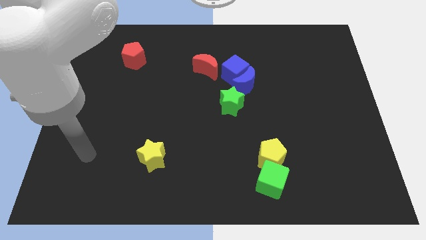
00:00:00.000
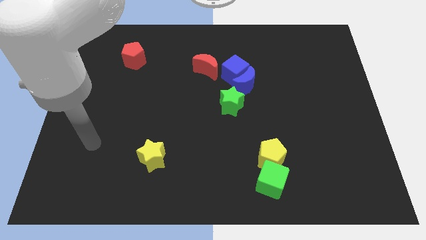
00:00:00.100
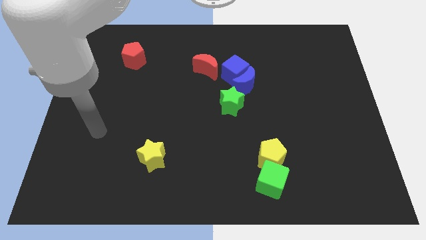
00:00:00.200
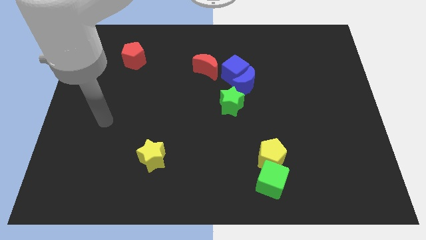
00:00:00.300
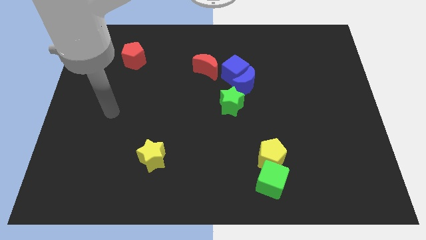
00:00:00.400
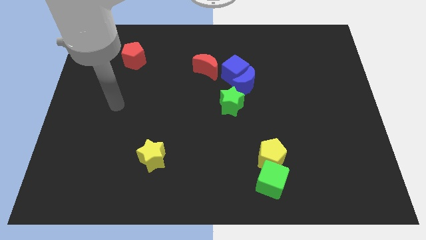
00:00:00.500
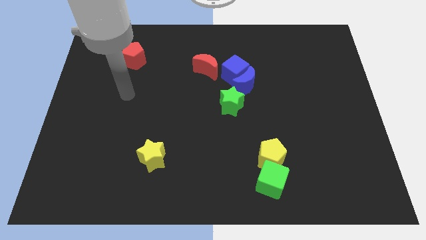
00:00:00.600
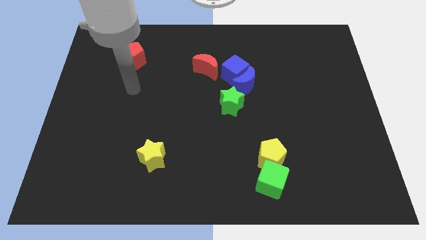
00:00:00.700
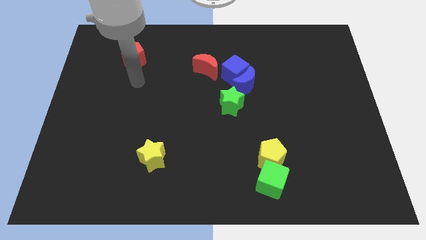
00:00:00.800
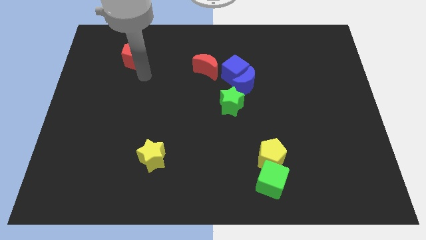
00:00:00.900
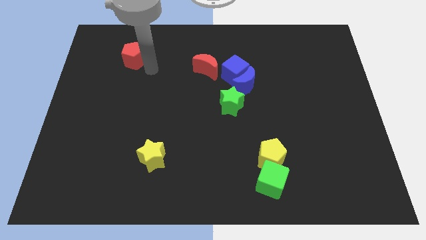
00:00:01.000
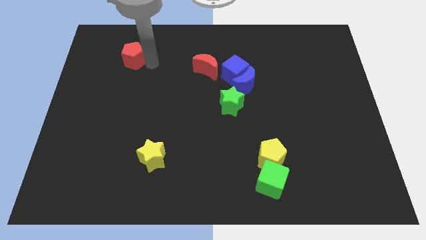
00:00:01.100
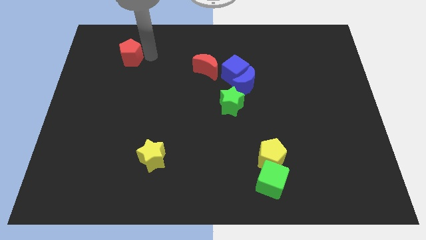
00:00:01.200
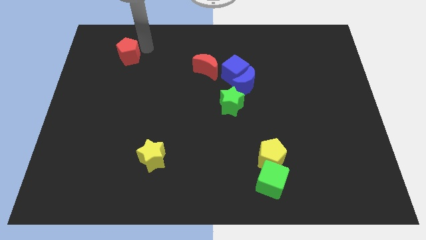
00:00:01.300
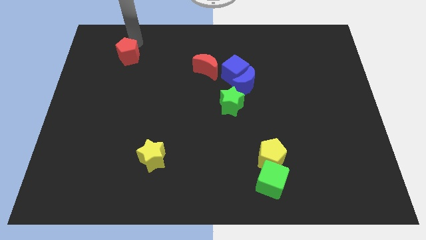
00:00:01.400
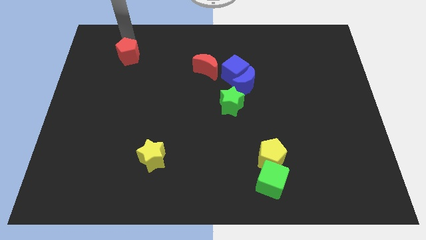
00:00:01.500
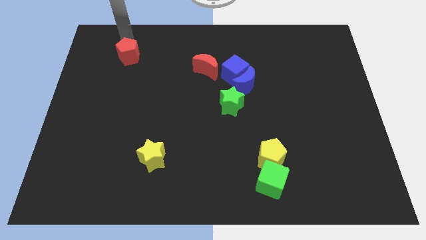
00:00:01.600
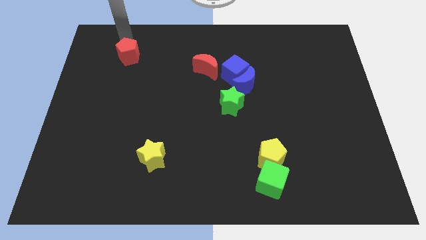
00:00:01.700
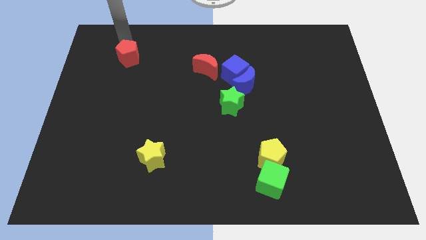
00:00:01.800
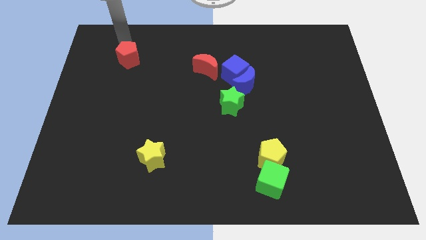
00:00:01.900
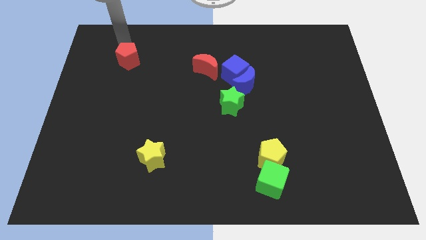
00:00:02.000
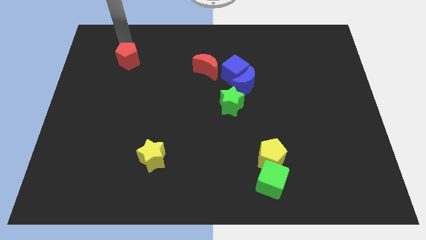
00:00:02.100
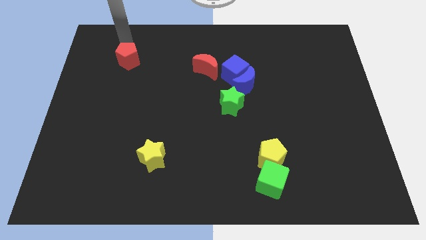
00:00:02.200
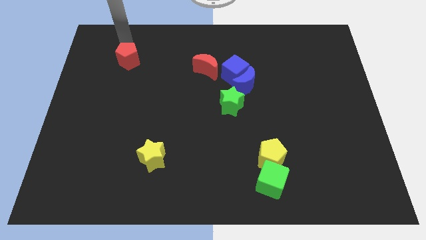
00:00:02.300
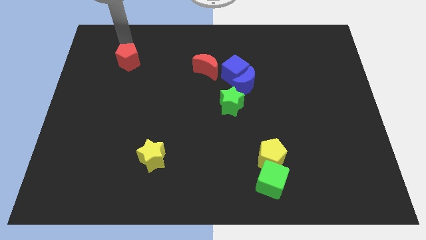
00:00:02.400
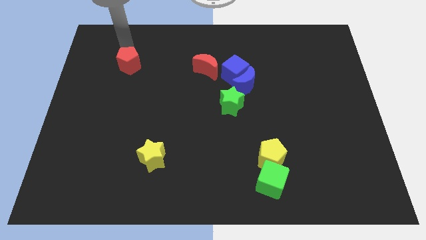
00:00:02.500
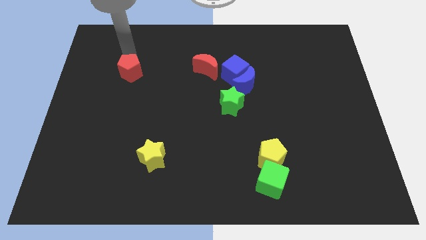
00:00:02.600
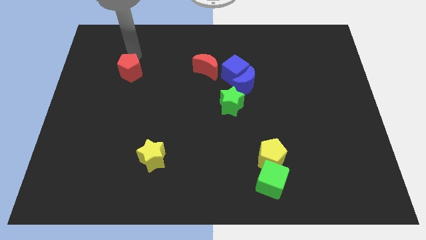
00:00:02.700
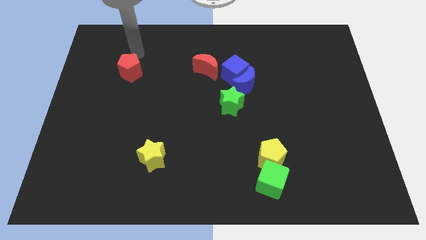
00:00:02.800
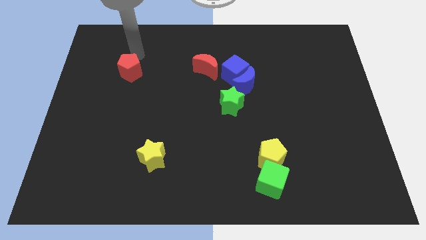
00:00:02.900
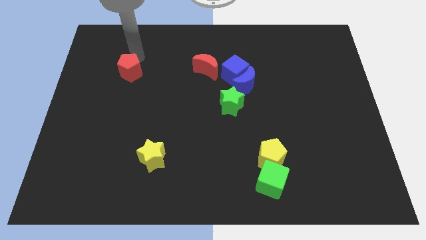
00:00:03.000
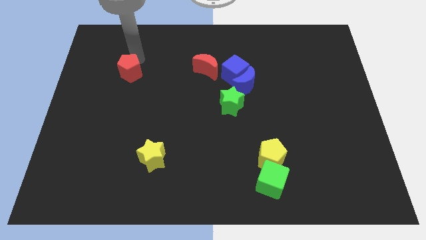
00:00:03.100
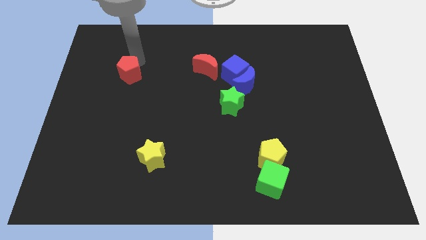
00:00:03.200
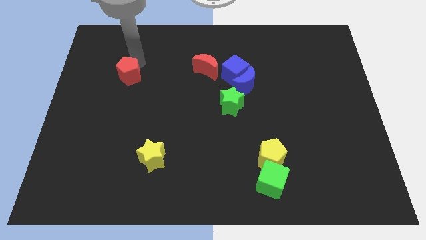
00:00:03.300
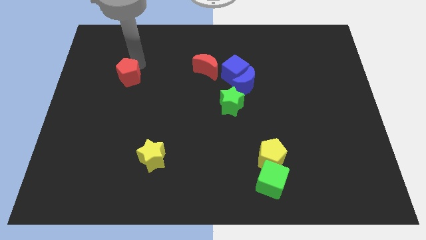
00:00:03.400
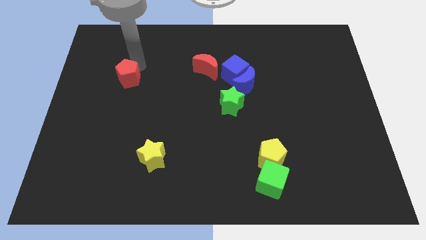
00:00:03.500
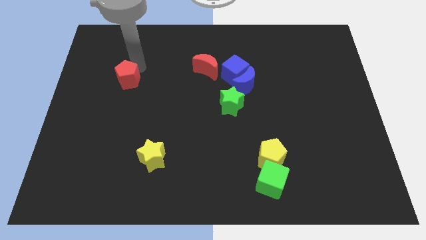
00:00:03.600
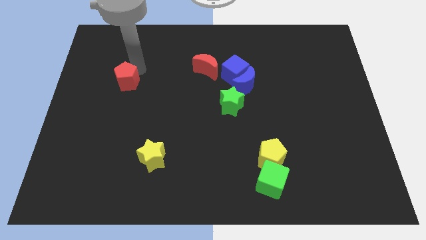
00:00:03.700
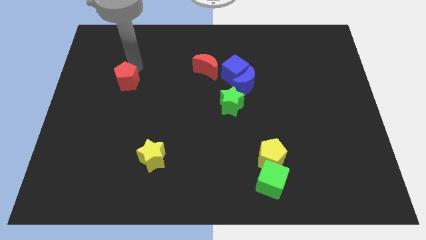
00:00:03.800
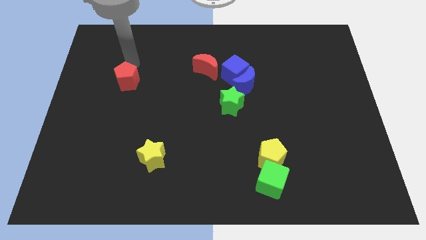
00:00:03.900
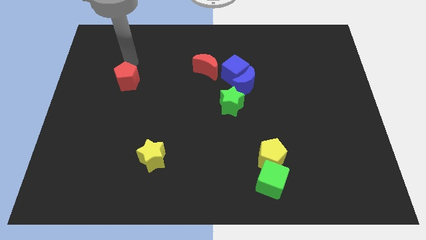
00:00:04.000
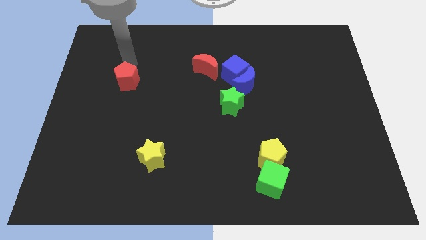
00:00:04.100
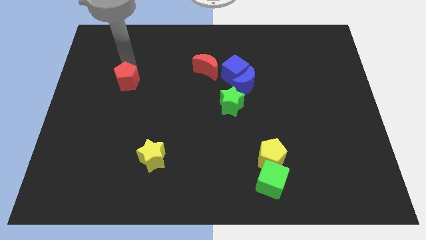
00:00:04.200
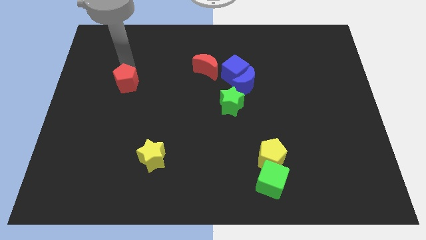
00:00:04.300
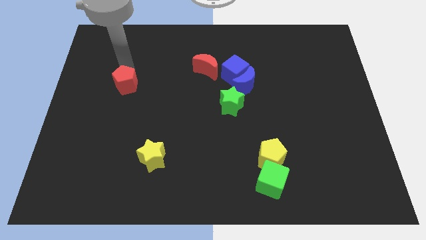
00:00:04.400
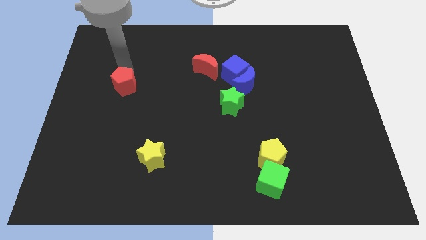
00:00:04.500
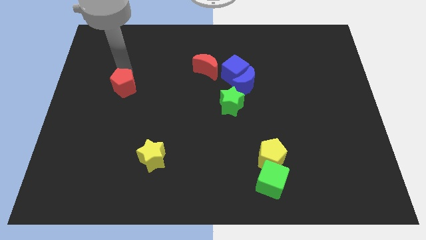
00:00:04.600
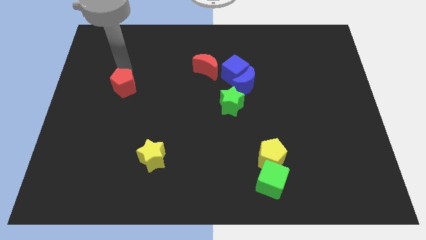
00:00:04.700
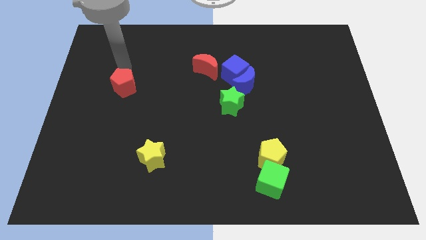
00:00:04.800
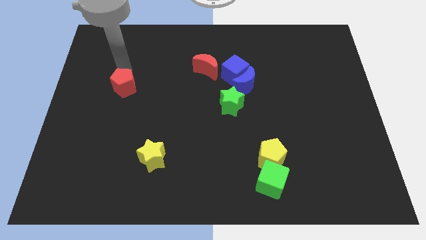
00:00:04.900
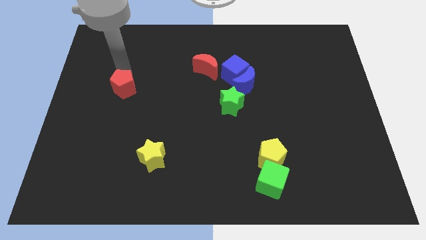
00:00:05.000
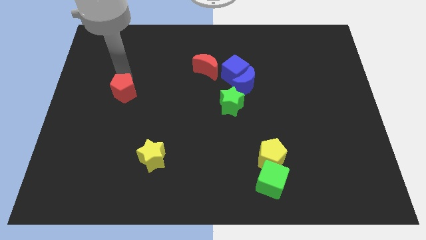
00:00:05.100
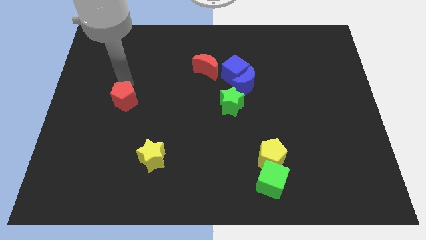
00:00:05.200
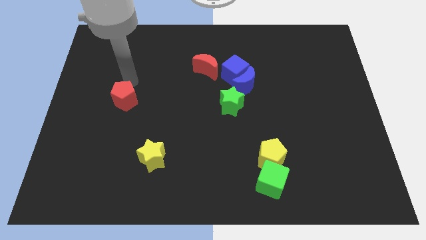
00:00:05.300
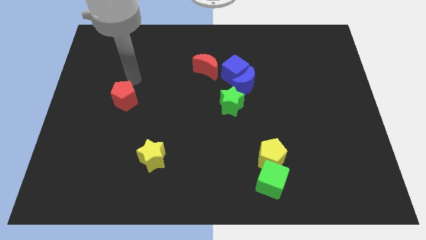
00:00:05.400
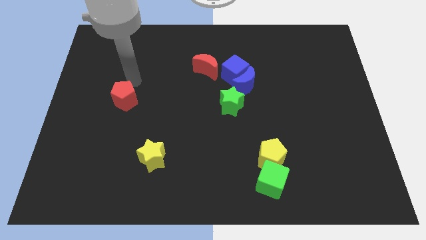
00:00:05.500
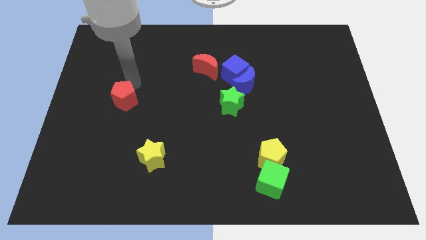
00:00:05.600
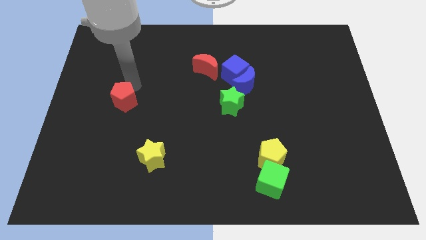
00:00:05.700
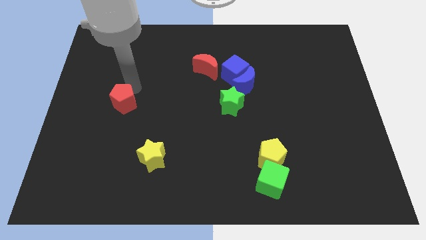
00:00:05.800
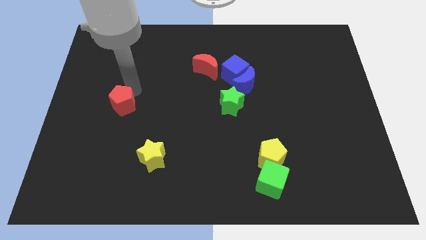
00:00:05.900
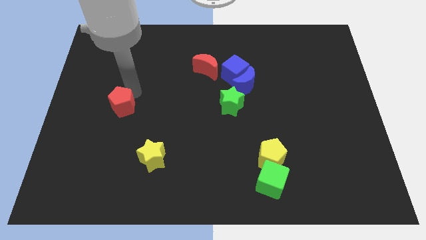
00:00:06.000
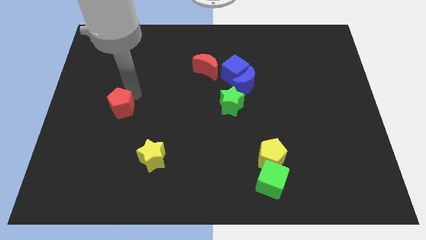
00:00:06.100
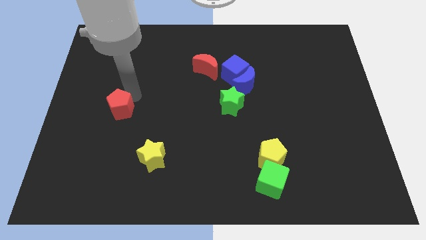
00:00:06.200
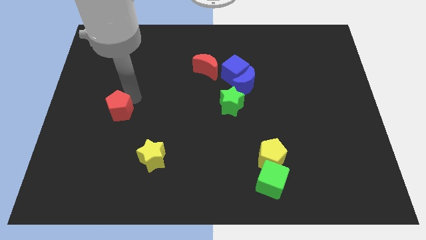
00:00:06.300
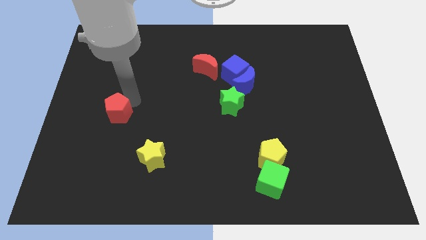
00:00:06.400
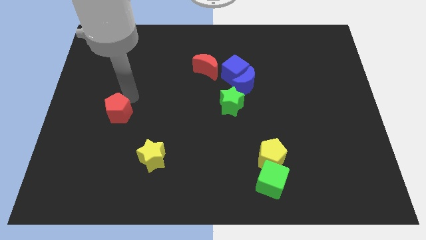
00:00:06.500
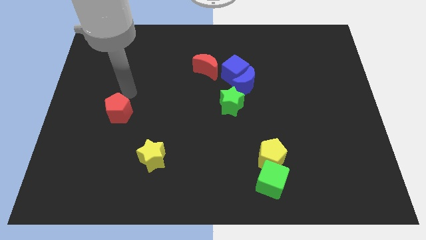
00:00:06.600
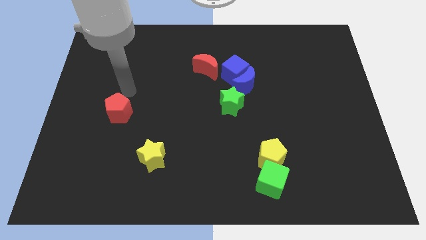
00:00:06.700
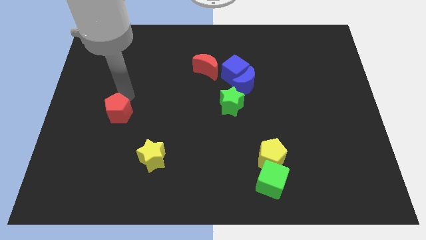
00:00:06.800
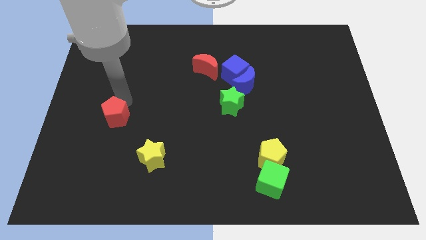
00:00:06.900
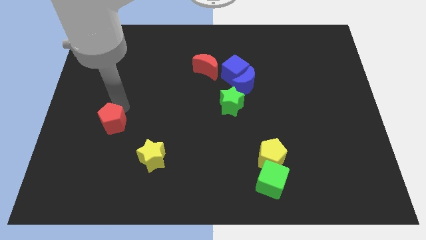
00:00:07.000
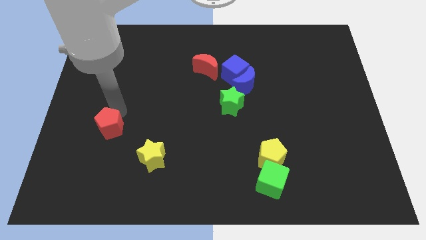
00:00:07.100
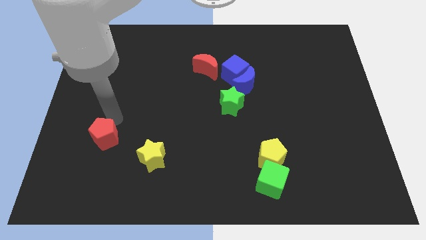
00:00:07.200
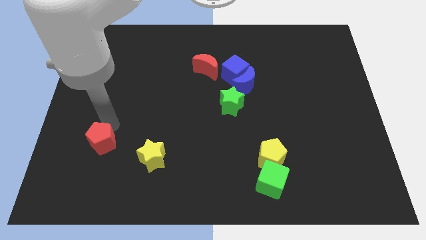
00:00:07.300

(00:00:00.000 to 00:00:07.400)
push the red pentagon left of the yellow star
